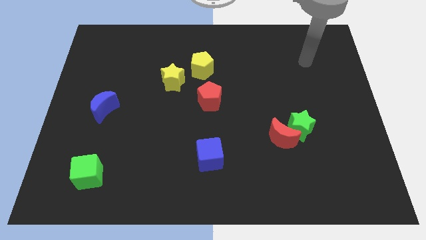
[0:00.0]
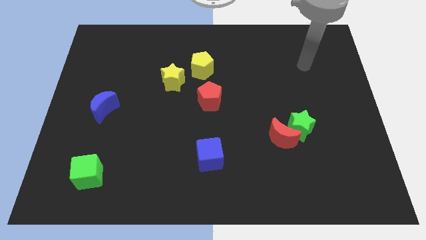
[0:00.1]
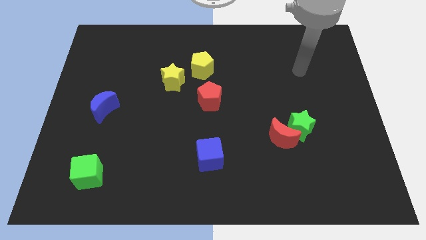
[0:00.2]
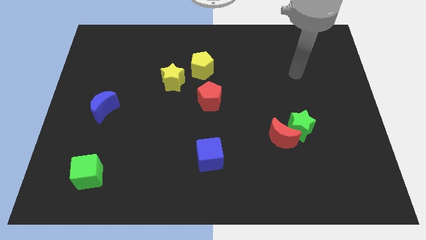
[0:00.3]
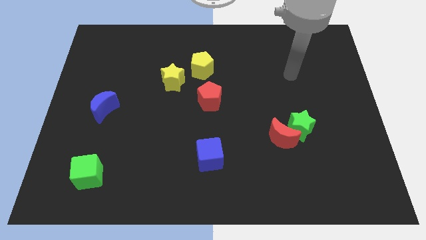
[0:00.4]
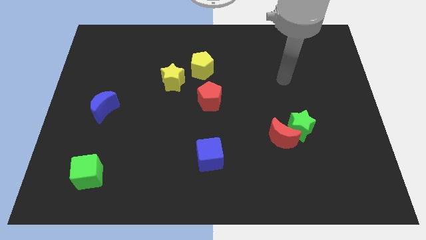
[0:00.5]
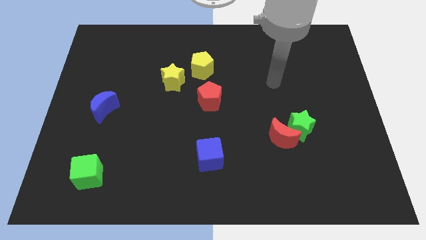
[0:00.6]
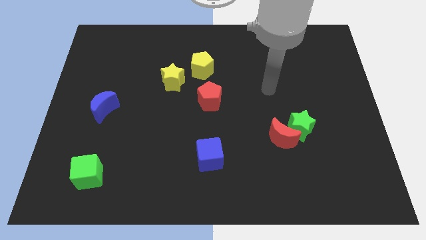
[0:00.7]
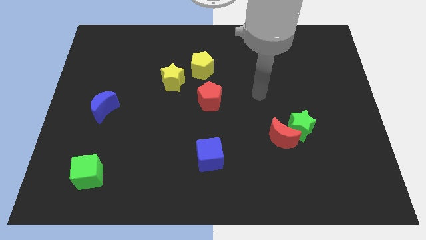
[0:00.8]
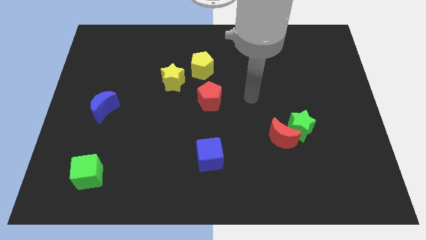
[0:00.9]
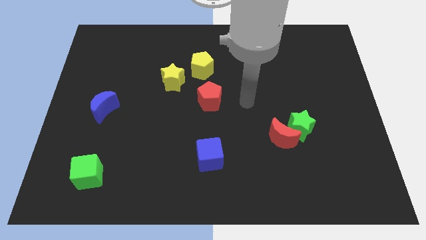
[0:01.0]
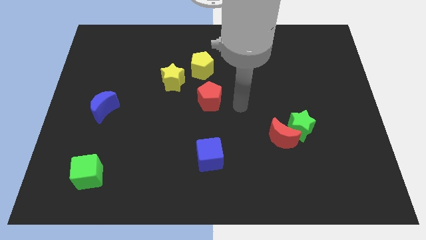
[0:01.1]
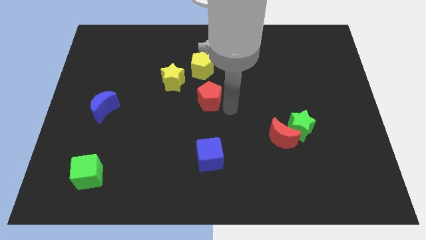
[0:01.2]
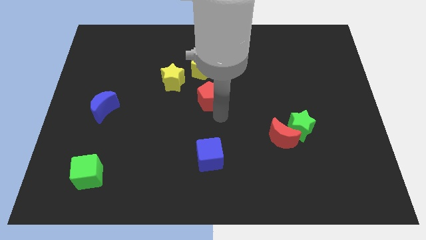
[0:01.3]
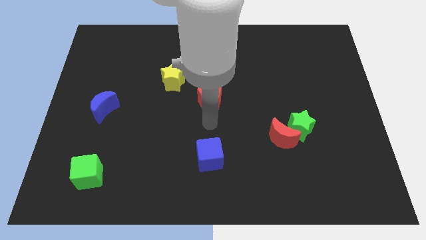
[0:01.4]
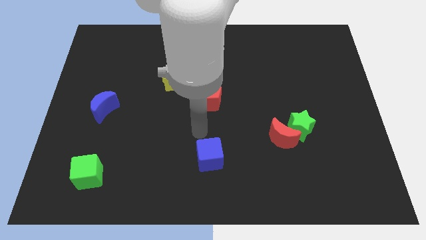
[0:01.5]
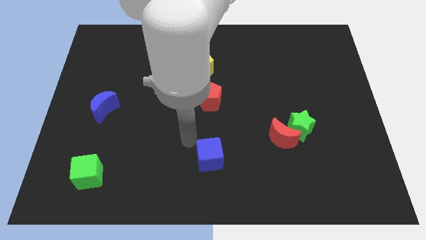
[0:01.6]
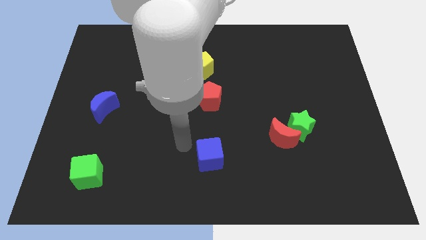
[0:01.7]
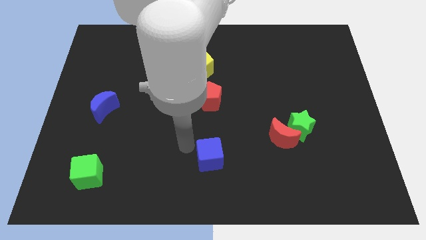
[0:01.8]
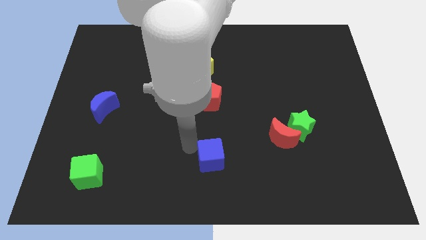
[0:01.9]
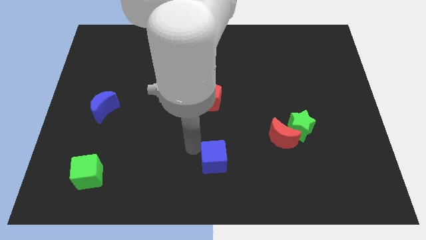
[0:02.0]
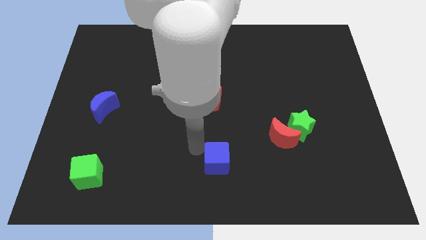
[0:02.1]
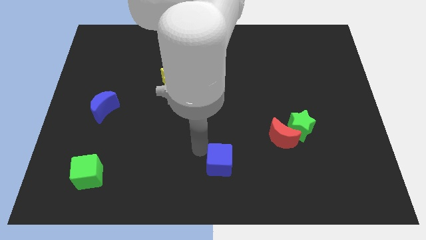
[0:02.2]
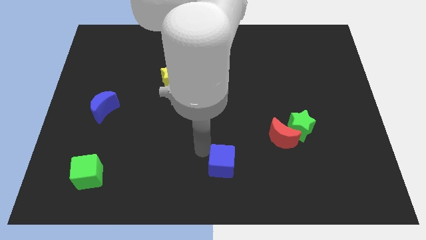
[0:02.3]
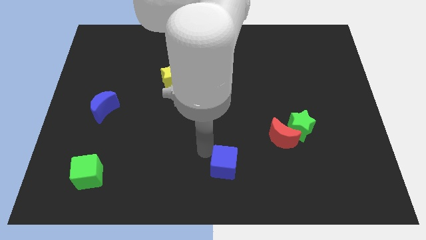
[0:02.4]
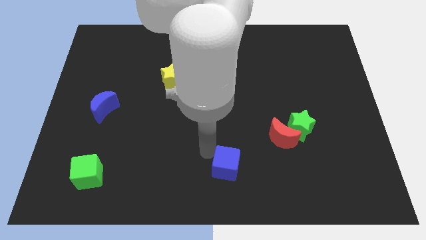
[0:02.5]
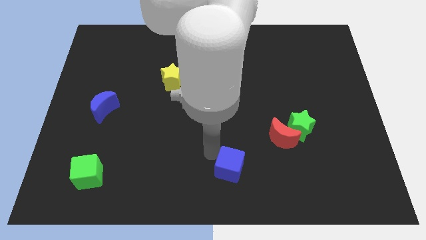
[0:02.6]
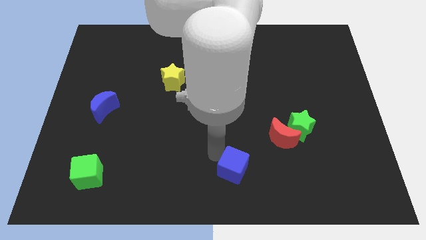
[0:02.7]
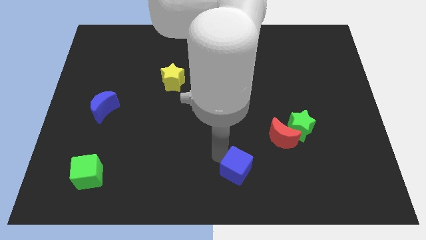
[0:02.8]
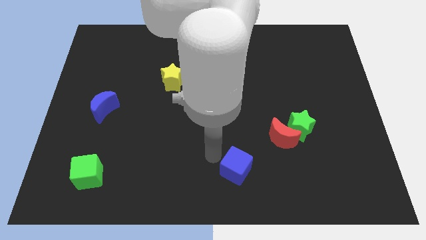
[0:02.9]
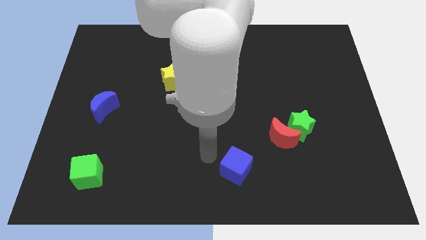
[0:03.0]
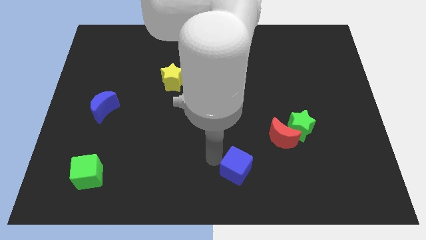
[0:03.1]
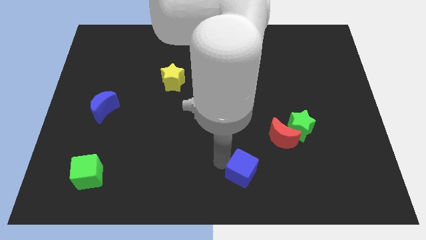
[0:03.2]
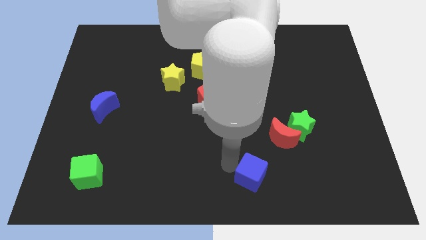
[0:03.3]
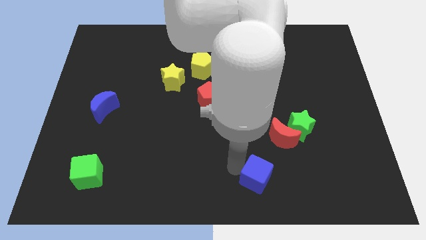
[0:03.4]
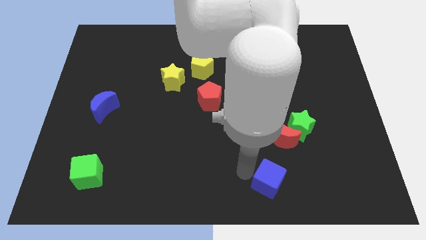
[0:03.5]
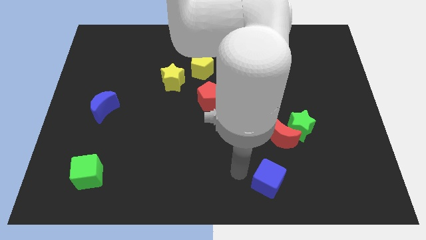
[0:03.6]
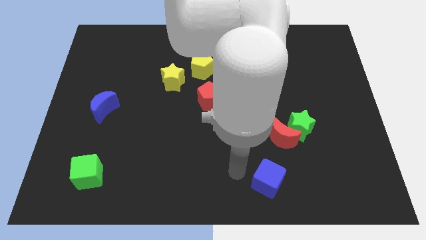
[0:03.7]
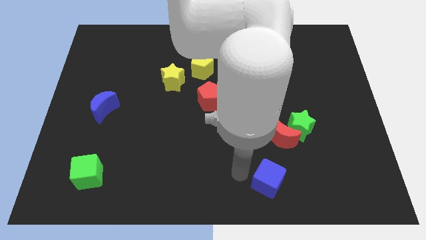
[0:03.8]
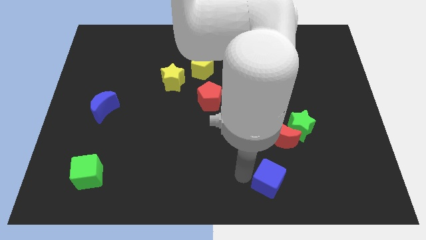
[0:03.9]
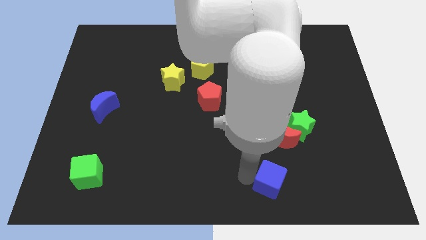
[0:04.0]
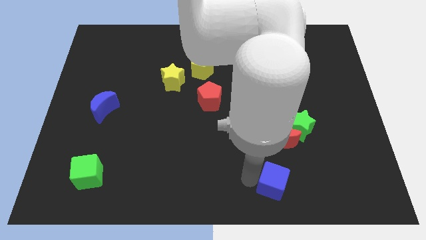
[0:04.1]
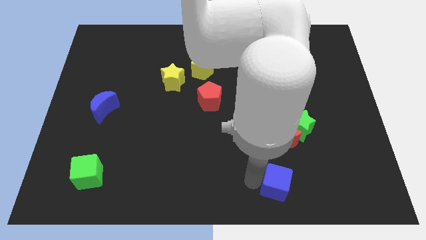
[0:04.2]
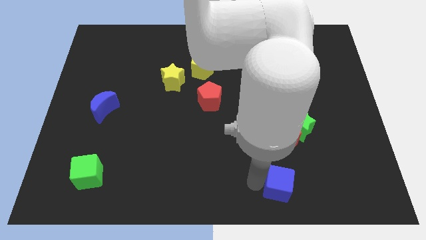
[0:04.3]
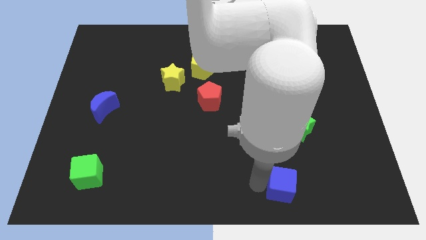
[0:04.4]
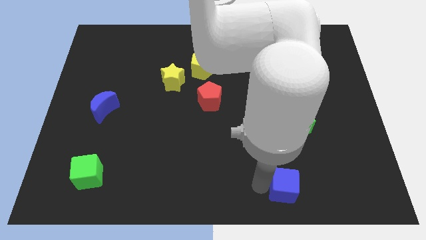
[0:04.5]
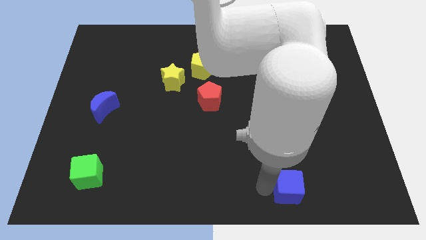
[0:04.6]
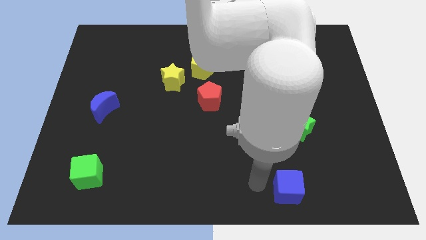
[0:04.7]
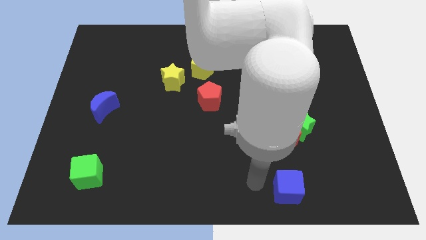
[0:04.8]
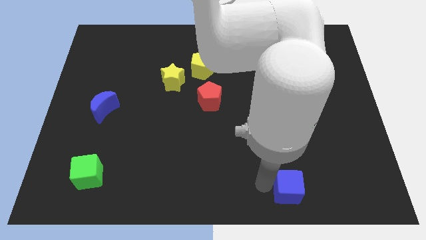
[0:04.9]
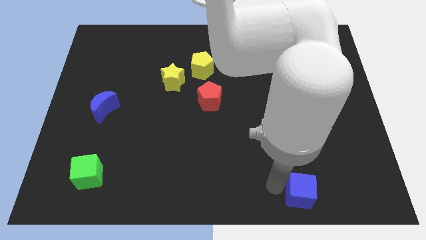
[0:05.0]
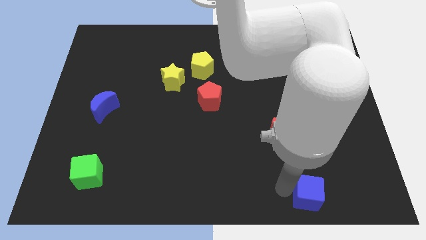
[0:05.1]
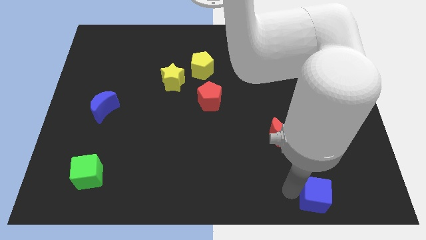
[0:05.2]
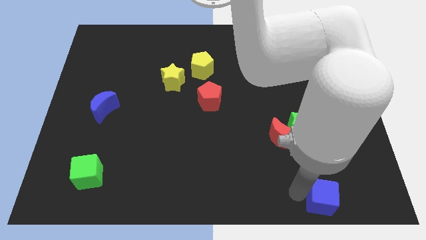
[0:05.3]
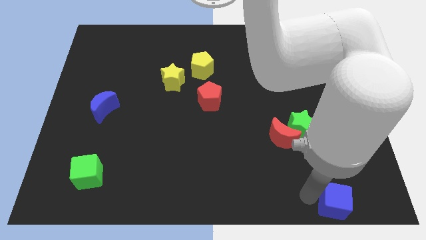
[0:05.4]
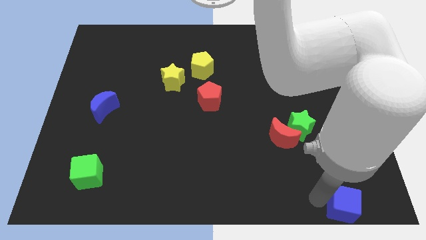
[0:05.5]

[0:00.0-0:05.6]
slide the blue cube to the bottom right

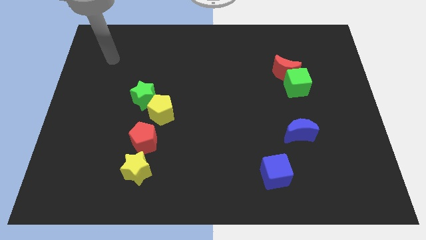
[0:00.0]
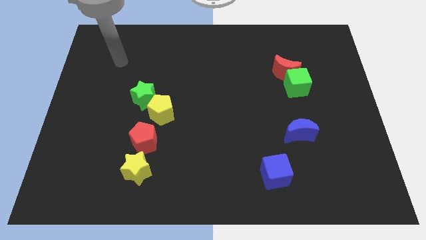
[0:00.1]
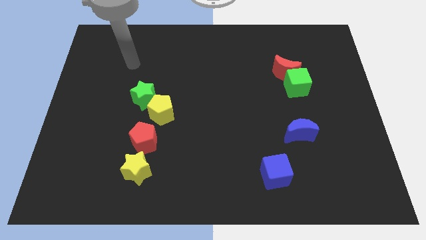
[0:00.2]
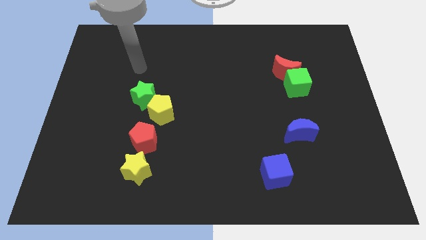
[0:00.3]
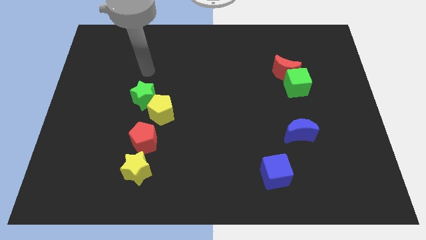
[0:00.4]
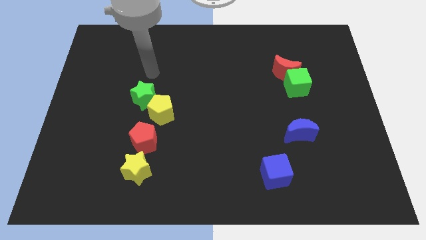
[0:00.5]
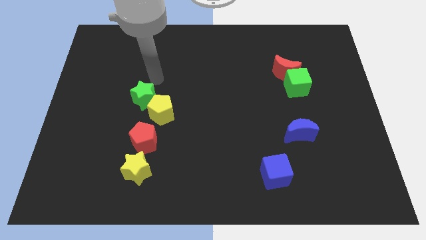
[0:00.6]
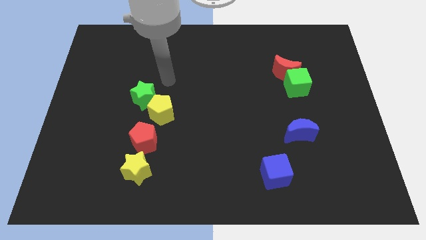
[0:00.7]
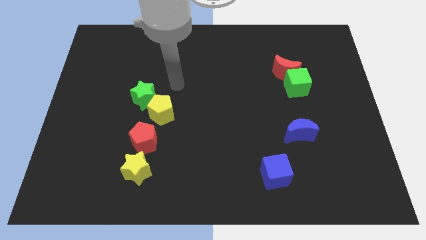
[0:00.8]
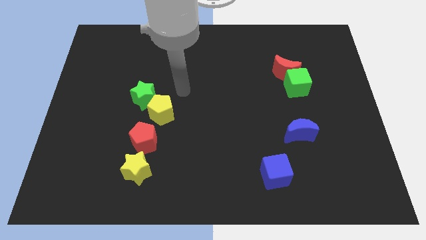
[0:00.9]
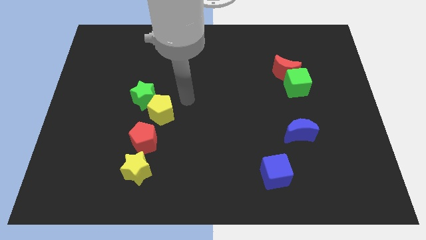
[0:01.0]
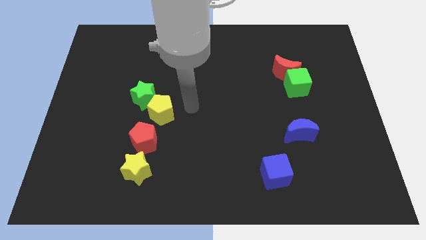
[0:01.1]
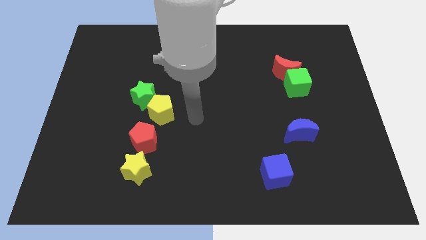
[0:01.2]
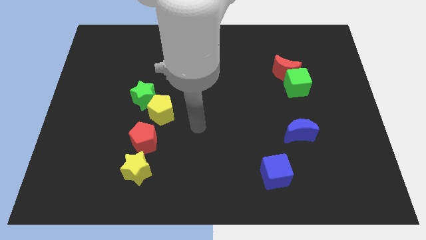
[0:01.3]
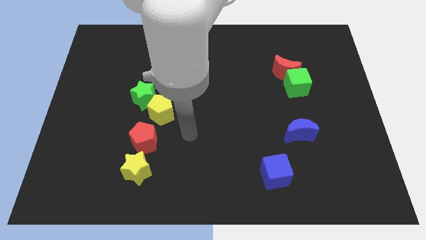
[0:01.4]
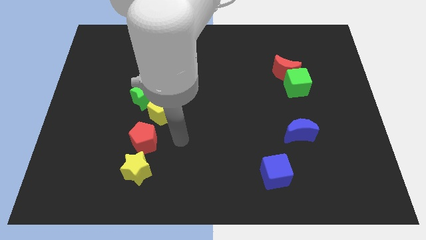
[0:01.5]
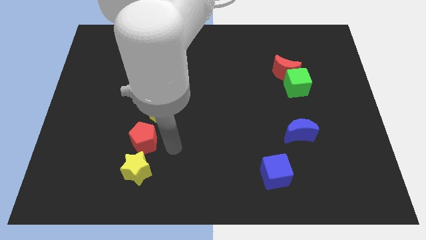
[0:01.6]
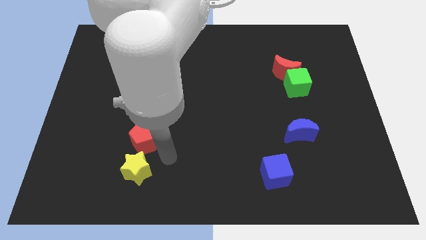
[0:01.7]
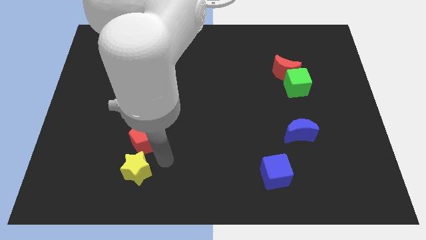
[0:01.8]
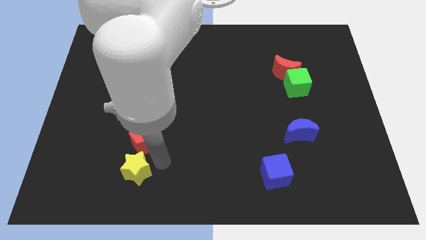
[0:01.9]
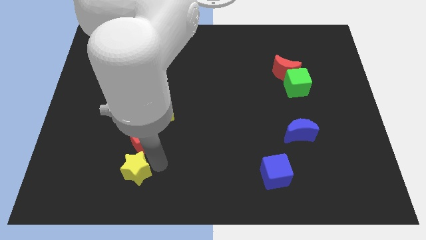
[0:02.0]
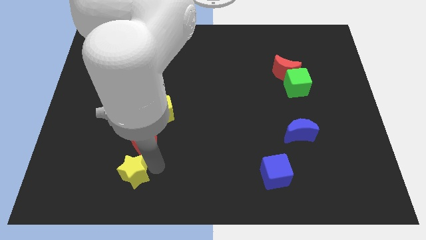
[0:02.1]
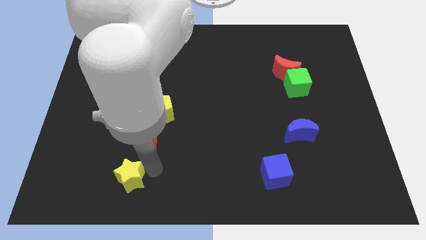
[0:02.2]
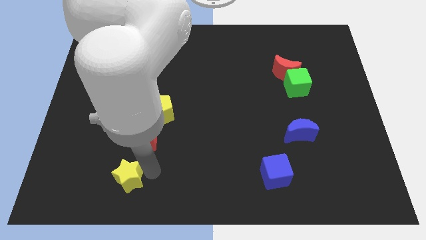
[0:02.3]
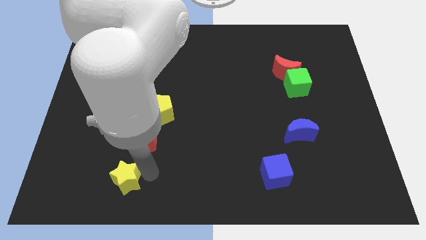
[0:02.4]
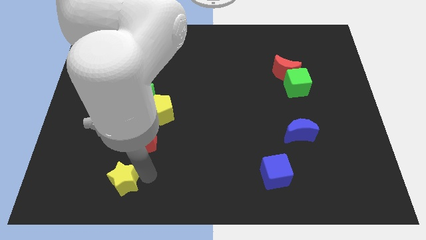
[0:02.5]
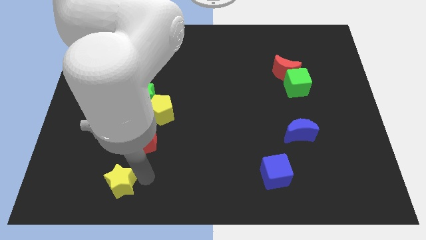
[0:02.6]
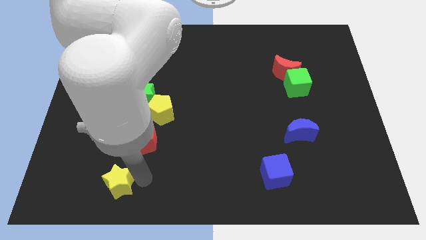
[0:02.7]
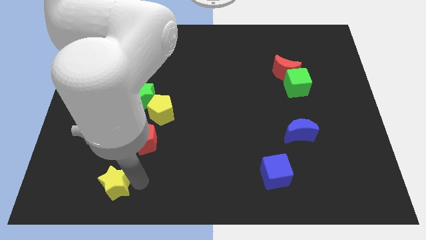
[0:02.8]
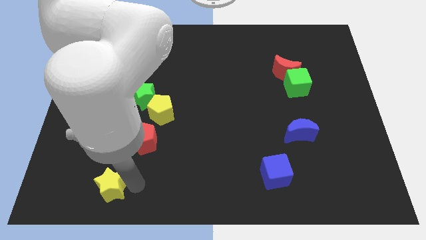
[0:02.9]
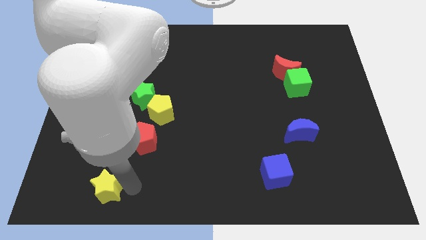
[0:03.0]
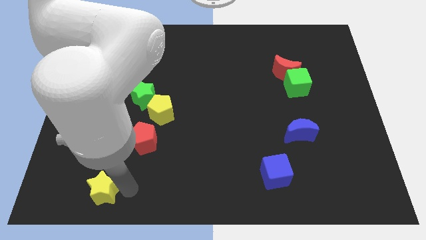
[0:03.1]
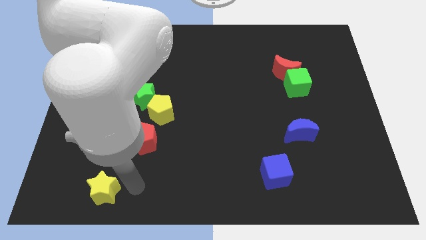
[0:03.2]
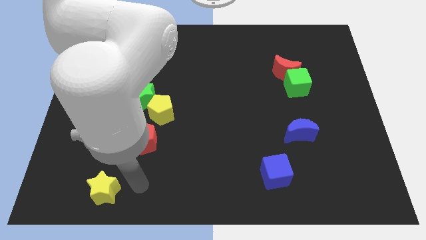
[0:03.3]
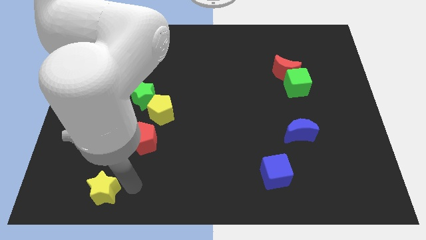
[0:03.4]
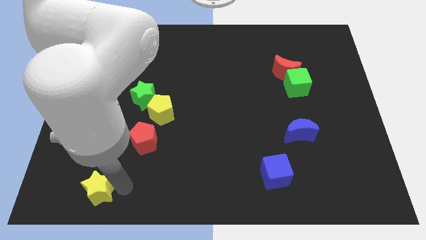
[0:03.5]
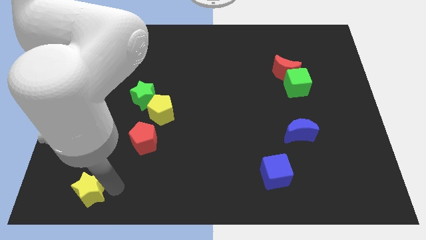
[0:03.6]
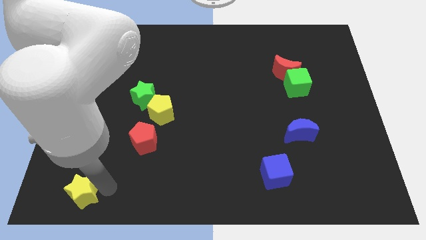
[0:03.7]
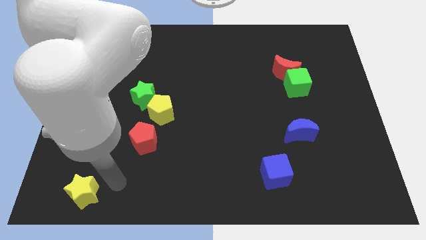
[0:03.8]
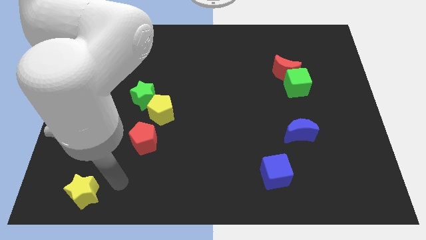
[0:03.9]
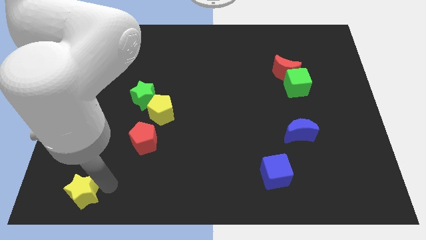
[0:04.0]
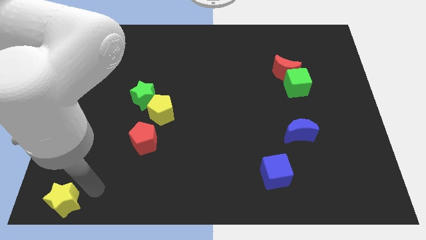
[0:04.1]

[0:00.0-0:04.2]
push the yellow star to the bottom left corner
